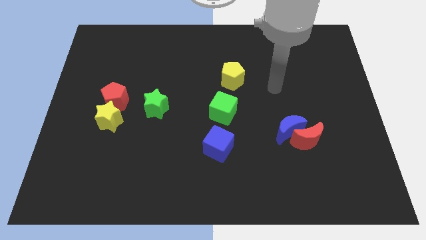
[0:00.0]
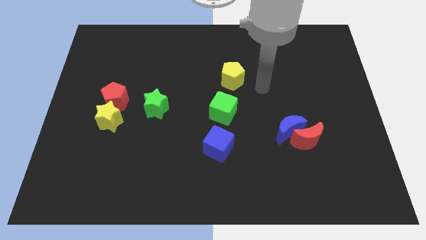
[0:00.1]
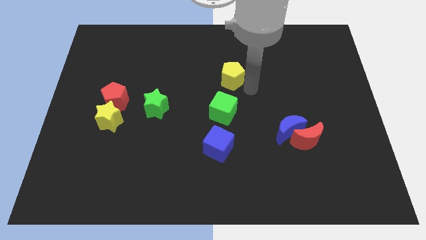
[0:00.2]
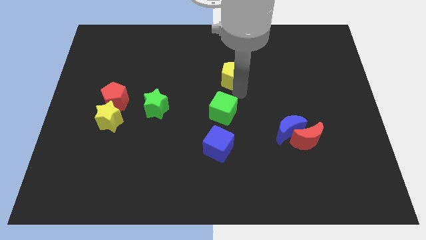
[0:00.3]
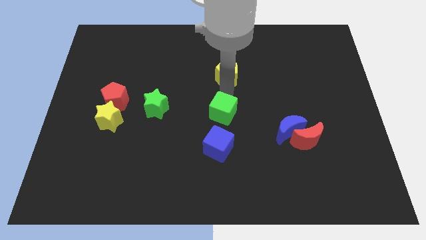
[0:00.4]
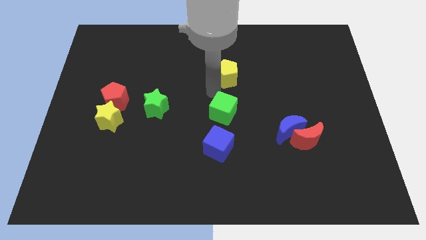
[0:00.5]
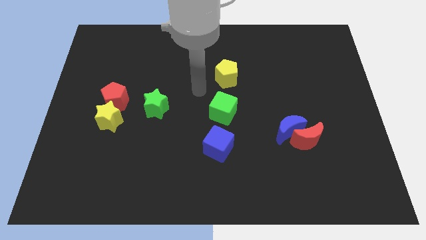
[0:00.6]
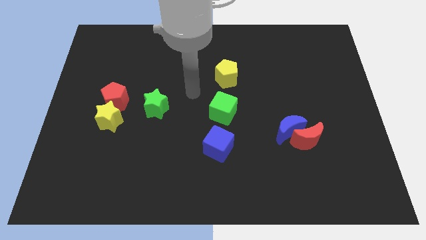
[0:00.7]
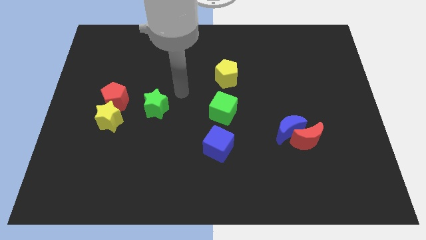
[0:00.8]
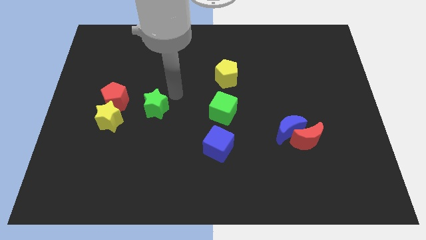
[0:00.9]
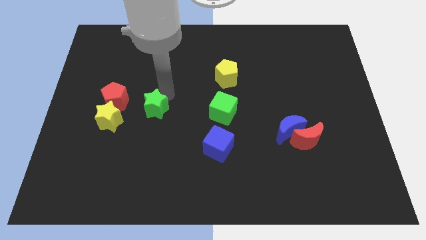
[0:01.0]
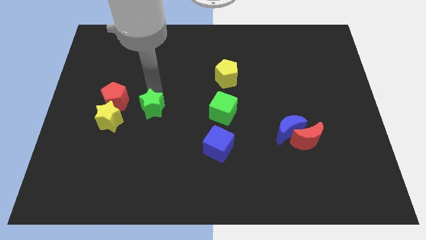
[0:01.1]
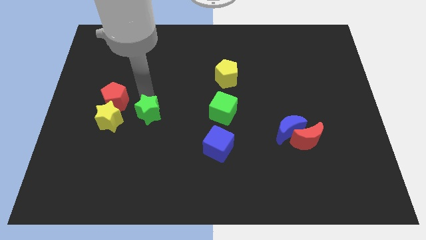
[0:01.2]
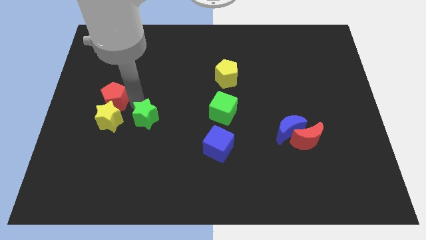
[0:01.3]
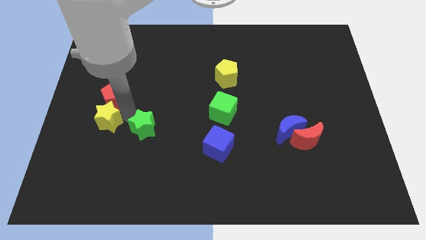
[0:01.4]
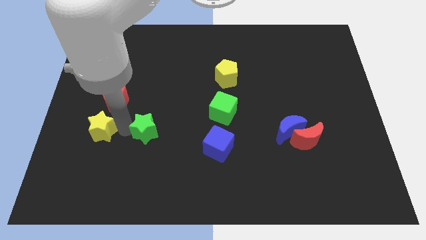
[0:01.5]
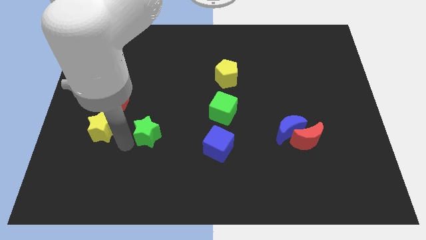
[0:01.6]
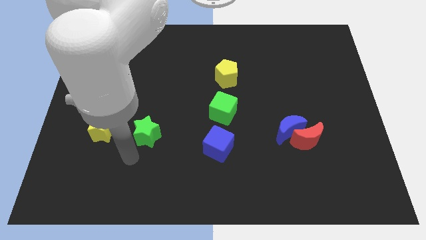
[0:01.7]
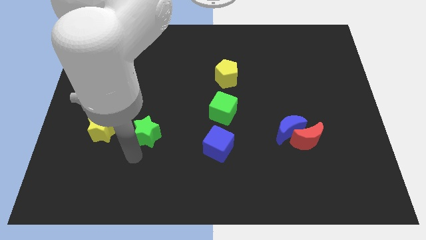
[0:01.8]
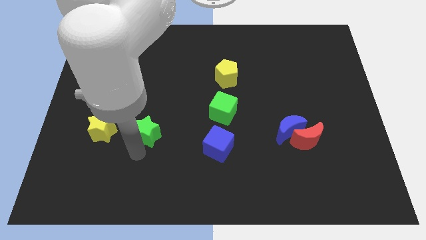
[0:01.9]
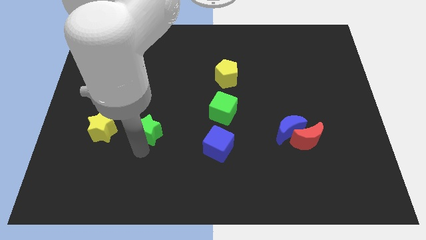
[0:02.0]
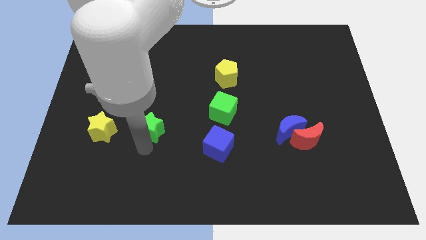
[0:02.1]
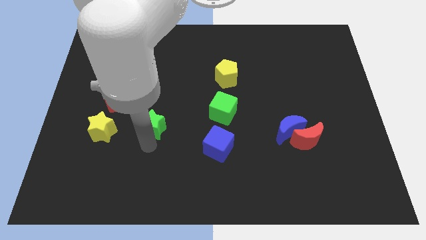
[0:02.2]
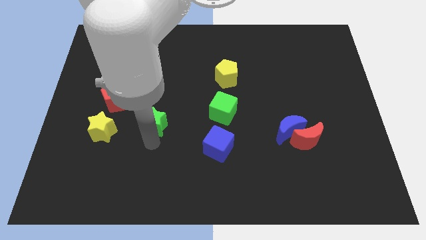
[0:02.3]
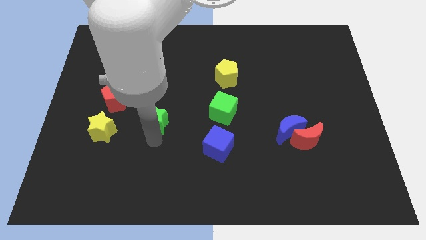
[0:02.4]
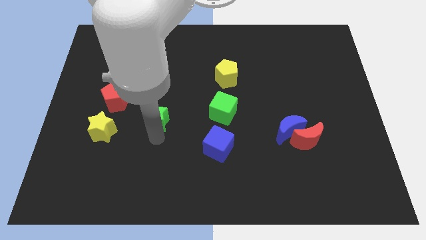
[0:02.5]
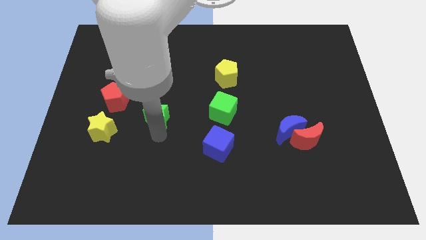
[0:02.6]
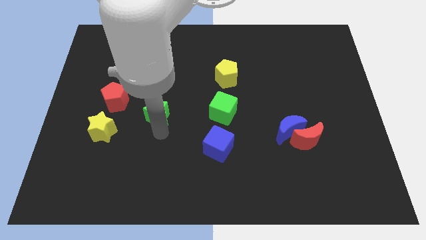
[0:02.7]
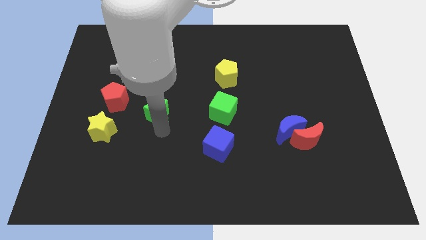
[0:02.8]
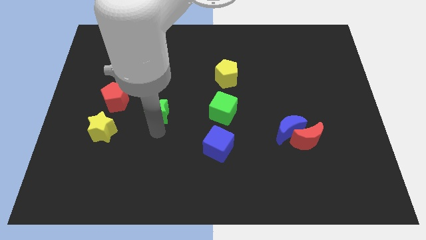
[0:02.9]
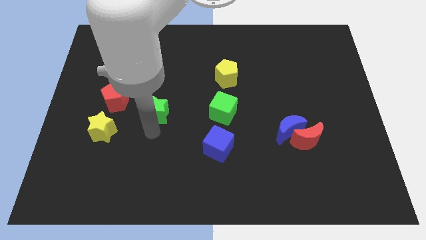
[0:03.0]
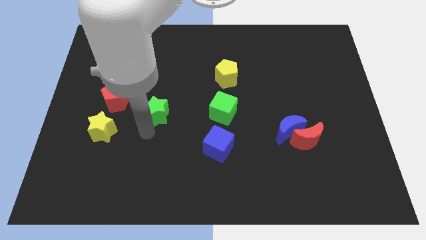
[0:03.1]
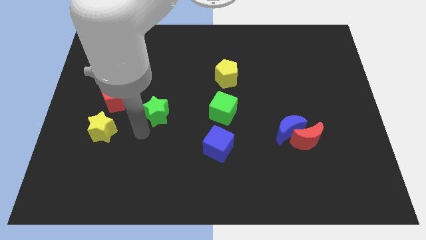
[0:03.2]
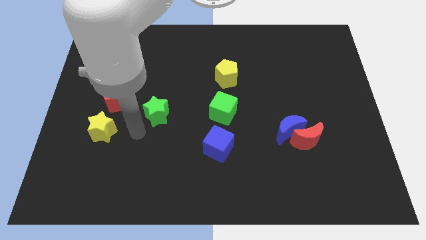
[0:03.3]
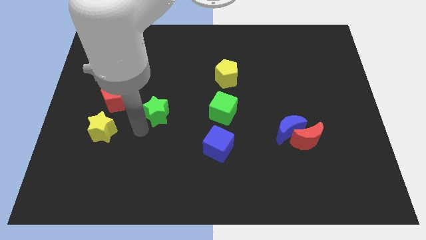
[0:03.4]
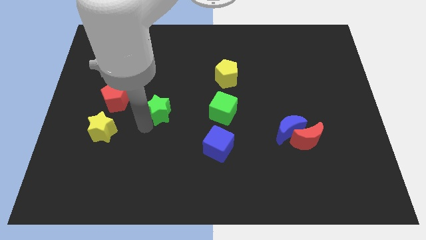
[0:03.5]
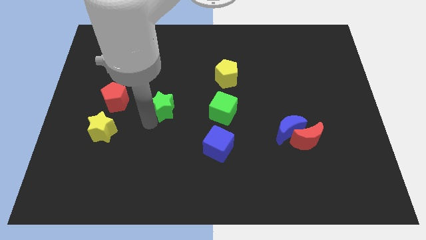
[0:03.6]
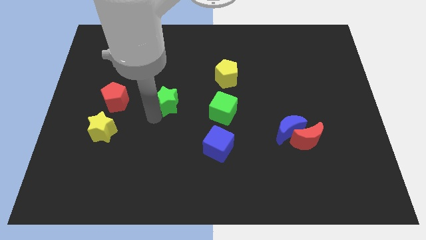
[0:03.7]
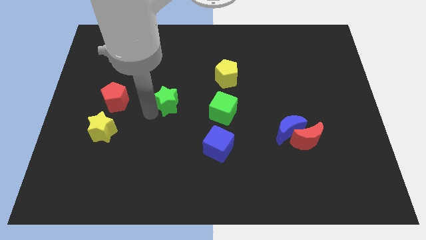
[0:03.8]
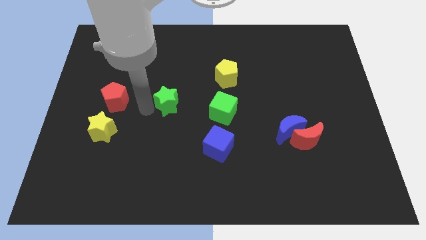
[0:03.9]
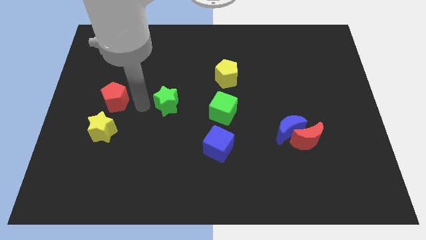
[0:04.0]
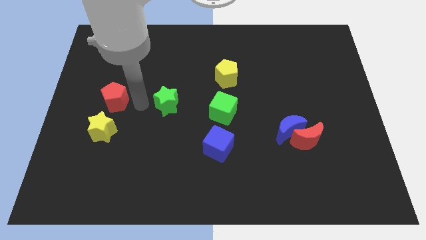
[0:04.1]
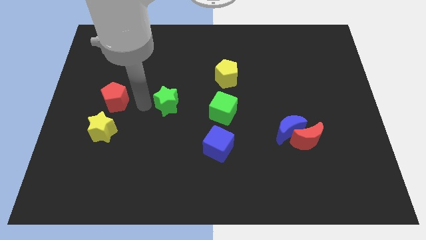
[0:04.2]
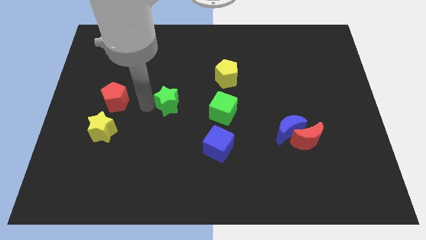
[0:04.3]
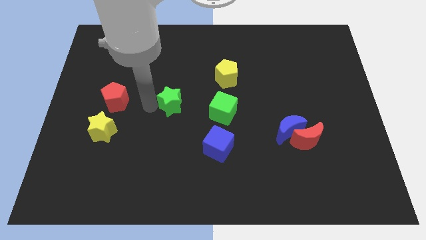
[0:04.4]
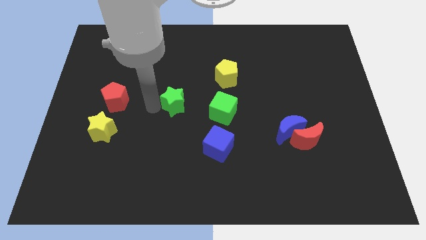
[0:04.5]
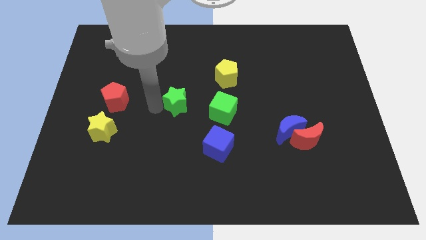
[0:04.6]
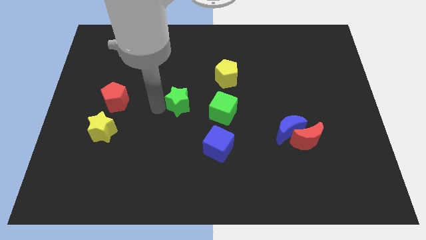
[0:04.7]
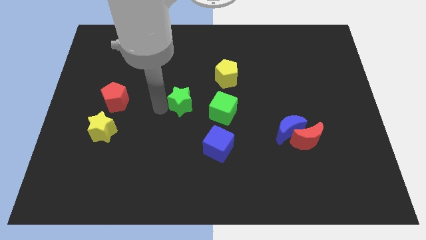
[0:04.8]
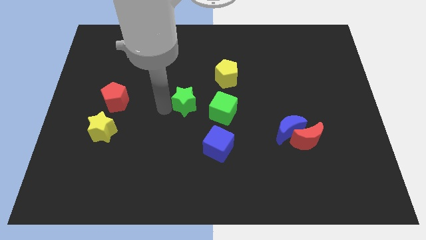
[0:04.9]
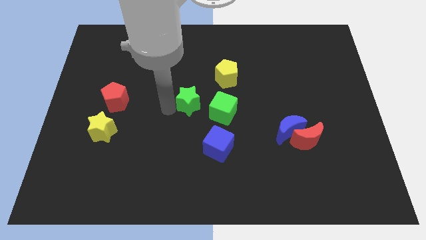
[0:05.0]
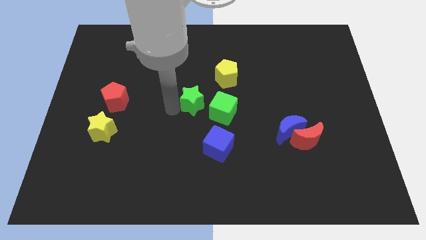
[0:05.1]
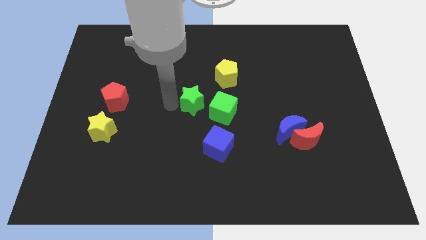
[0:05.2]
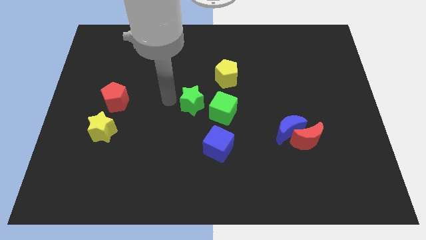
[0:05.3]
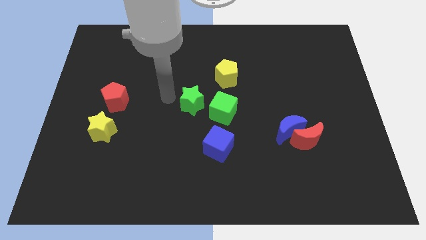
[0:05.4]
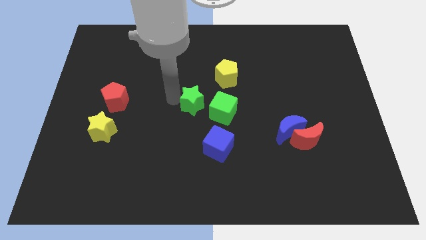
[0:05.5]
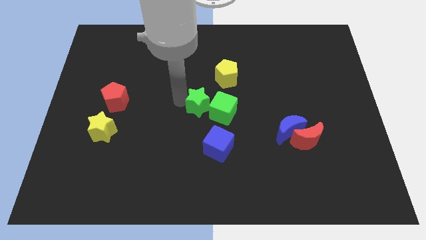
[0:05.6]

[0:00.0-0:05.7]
push the green star close to the green cube

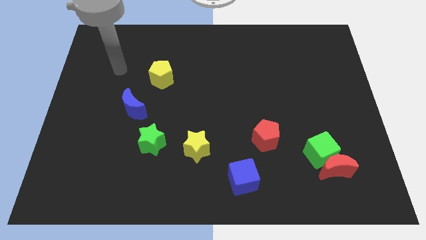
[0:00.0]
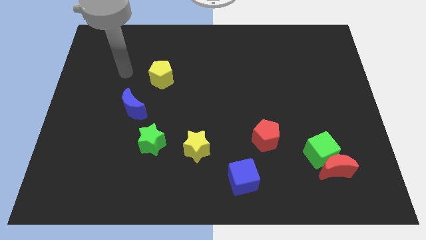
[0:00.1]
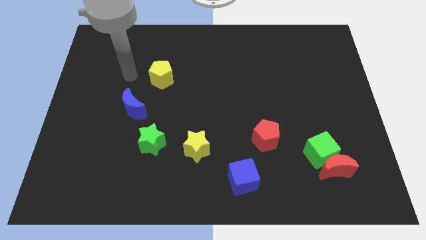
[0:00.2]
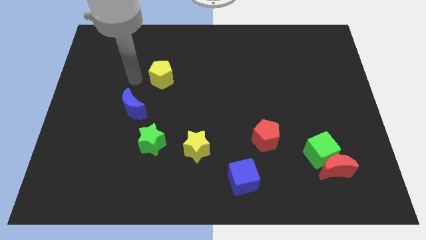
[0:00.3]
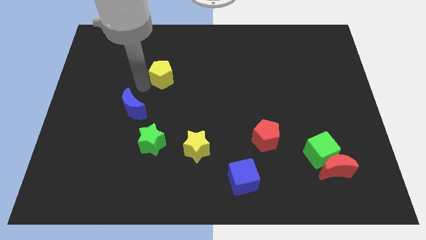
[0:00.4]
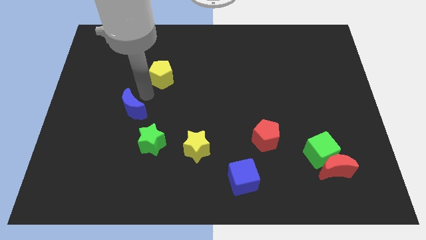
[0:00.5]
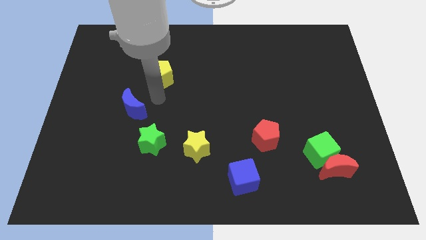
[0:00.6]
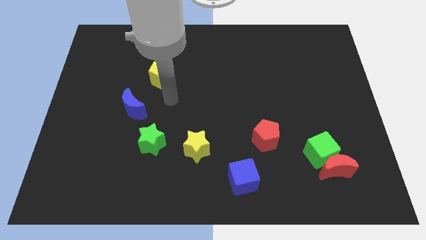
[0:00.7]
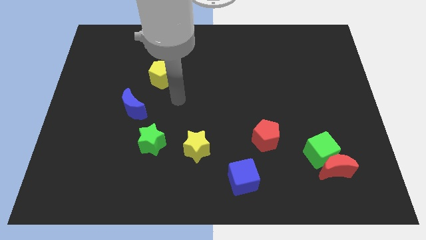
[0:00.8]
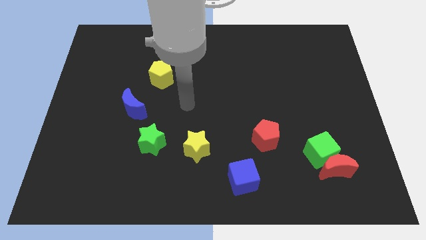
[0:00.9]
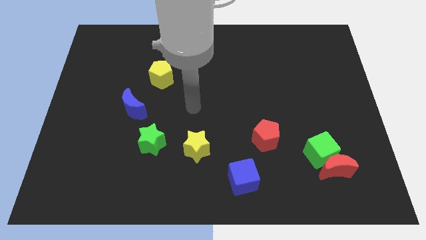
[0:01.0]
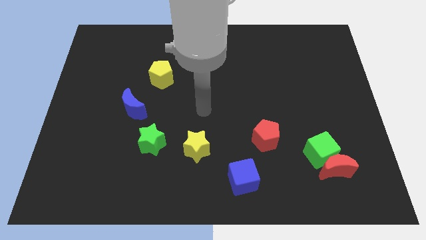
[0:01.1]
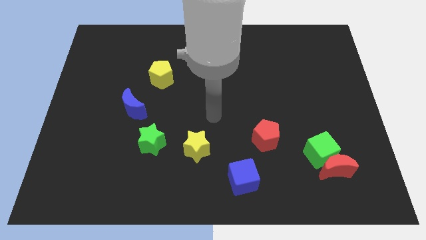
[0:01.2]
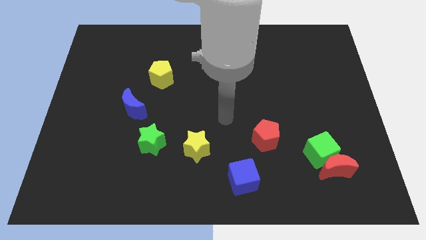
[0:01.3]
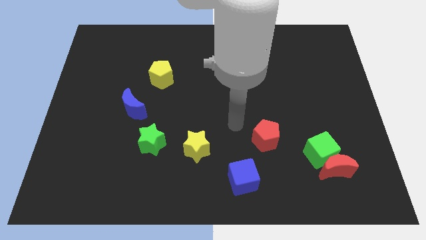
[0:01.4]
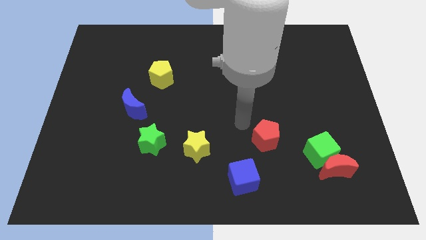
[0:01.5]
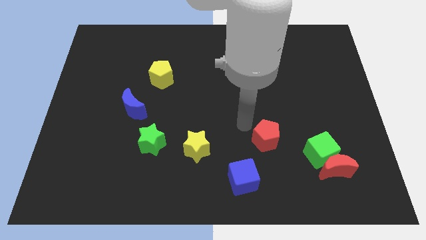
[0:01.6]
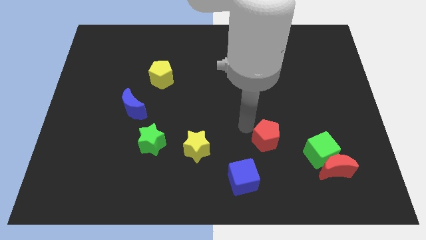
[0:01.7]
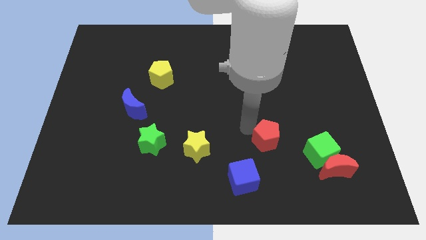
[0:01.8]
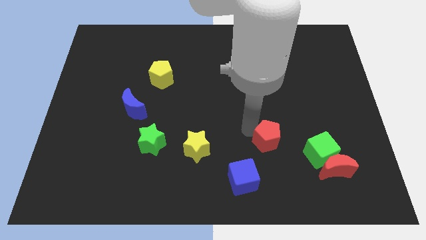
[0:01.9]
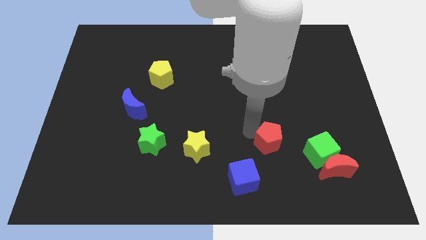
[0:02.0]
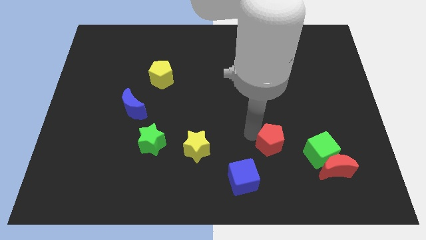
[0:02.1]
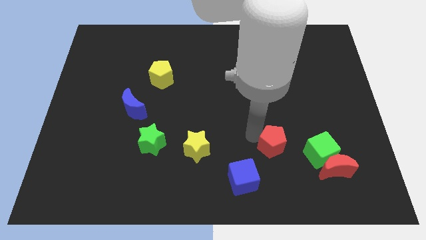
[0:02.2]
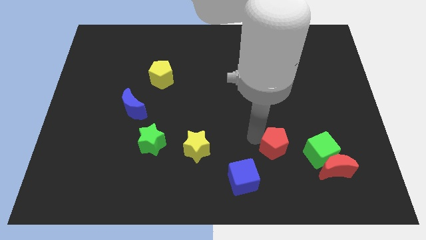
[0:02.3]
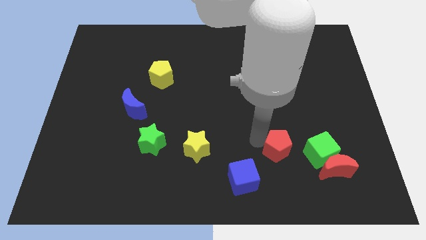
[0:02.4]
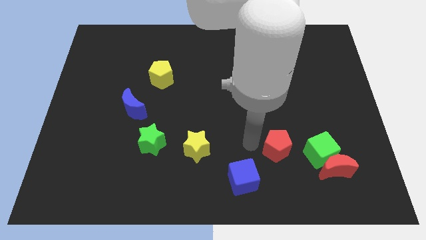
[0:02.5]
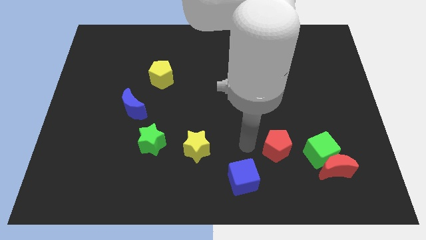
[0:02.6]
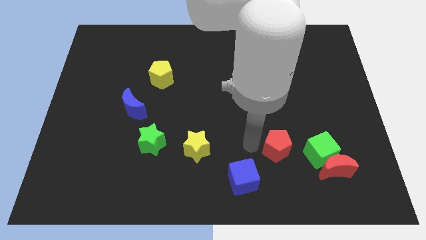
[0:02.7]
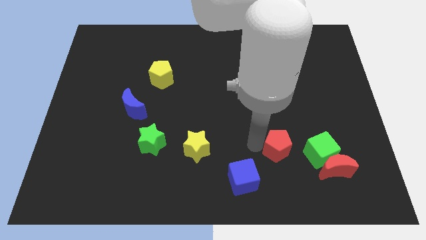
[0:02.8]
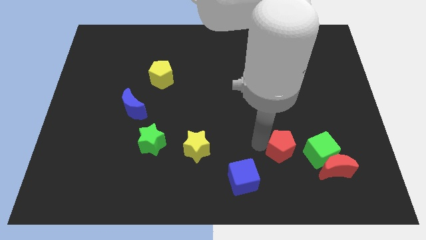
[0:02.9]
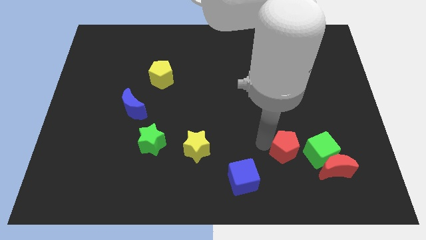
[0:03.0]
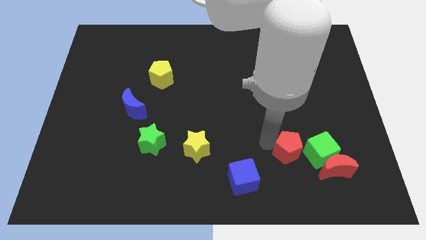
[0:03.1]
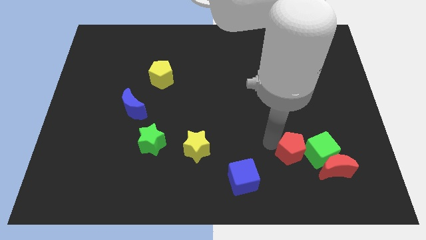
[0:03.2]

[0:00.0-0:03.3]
move the red pentagon next to the green cube
